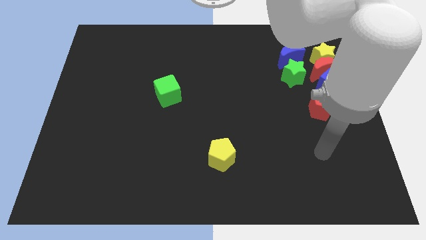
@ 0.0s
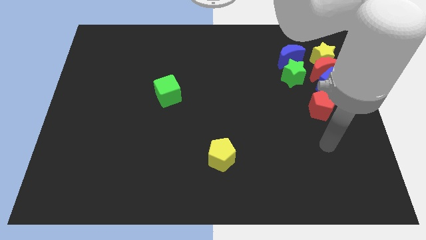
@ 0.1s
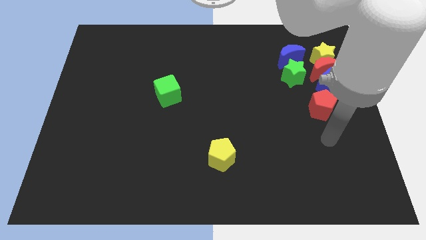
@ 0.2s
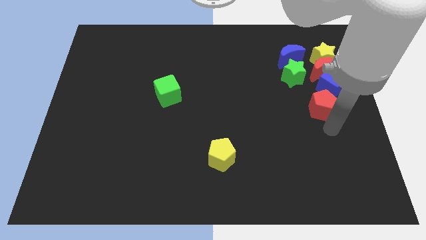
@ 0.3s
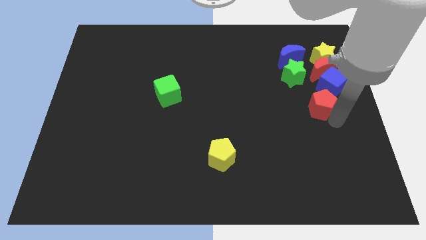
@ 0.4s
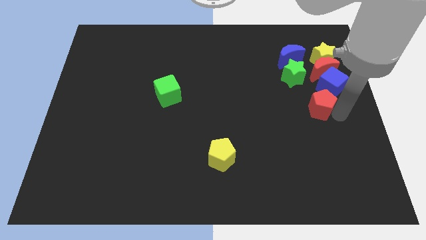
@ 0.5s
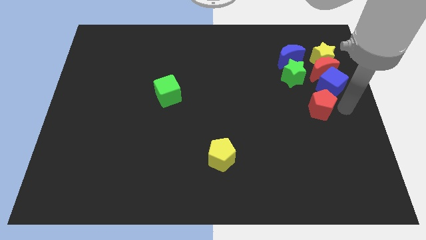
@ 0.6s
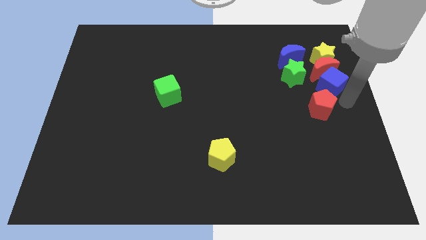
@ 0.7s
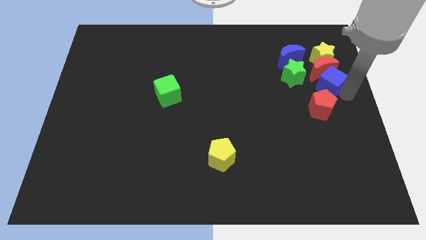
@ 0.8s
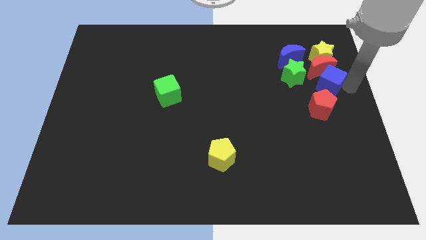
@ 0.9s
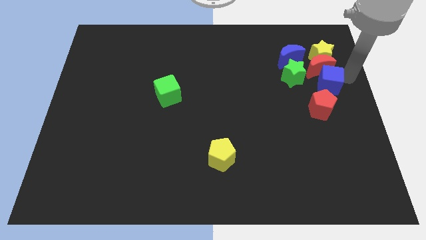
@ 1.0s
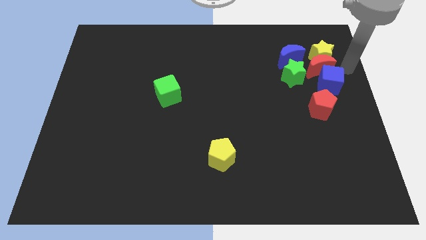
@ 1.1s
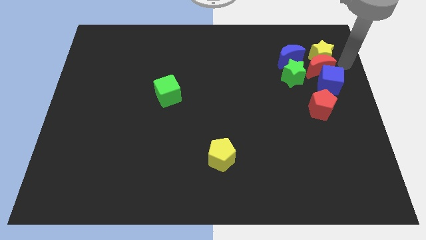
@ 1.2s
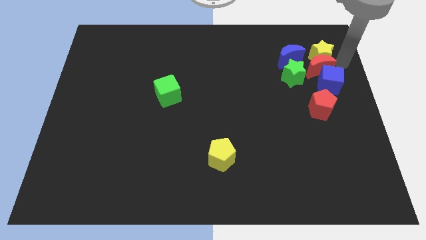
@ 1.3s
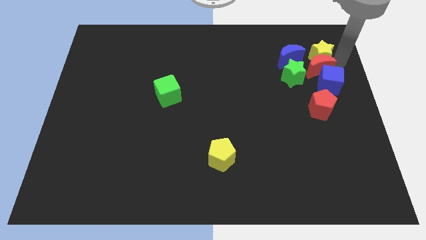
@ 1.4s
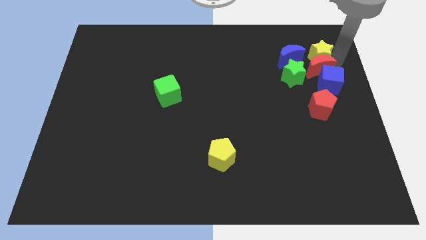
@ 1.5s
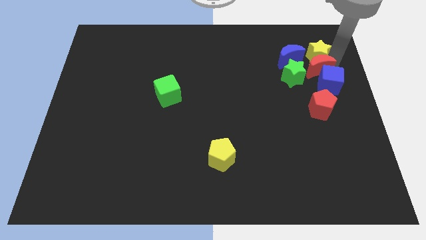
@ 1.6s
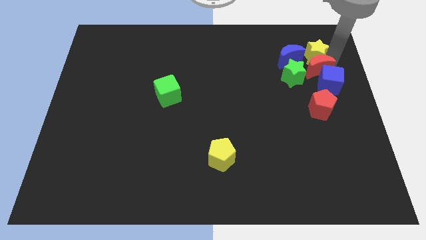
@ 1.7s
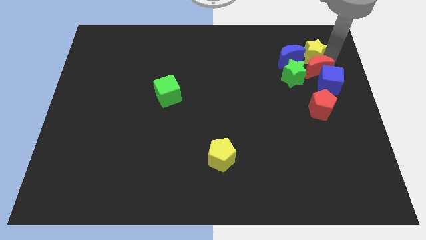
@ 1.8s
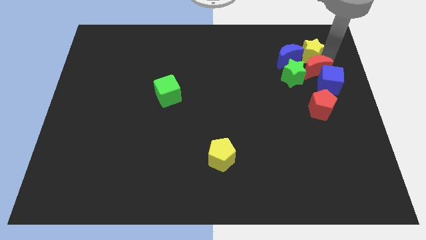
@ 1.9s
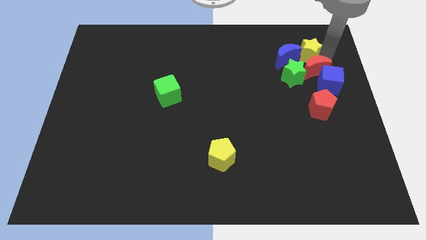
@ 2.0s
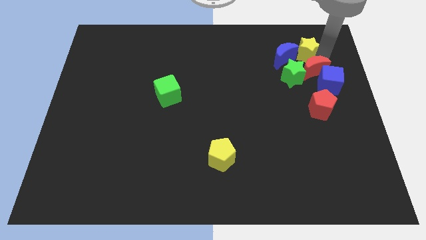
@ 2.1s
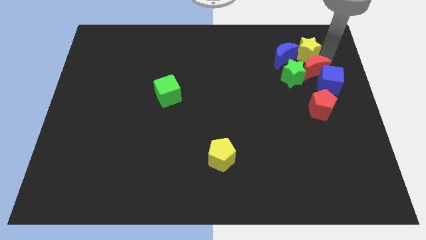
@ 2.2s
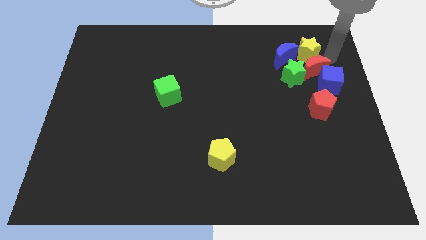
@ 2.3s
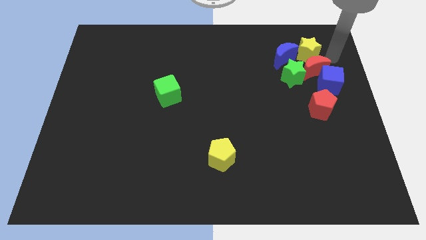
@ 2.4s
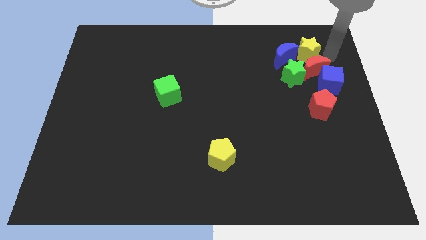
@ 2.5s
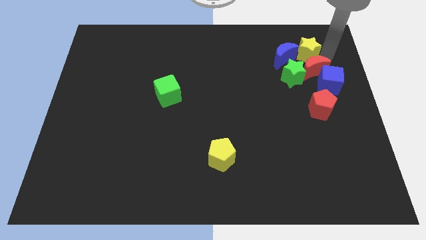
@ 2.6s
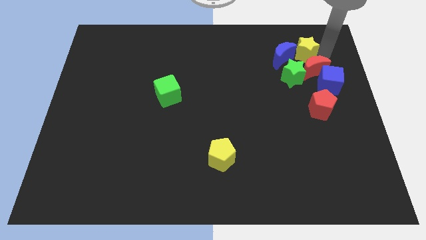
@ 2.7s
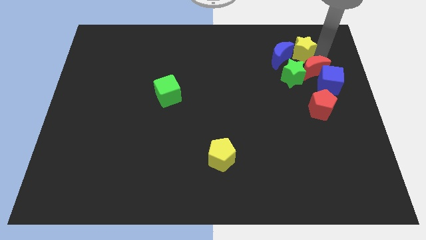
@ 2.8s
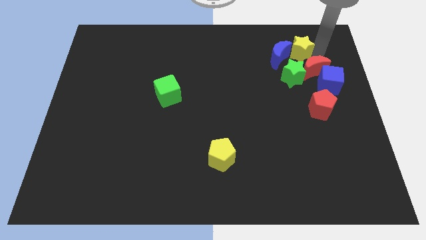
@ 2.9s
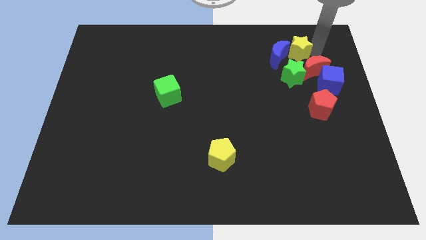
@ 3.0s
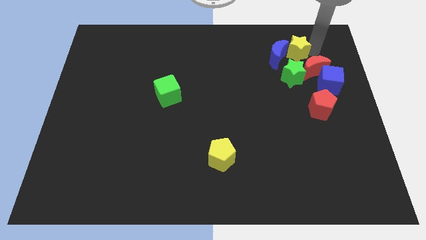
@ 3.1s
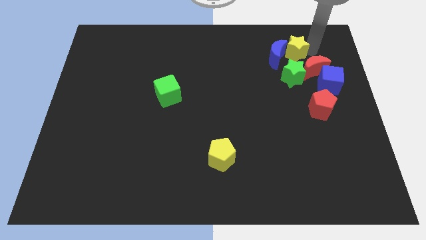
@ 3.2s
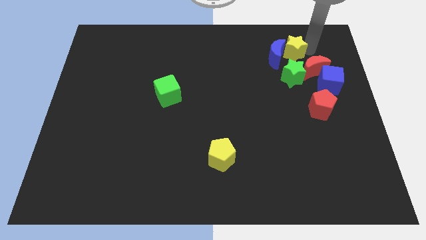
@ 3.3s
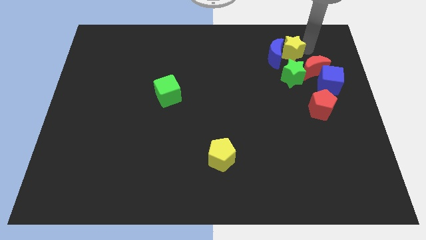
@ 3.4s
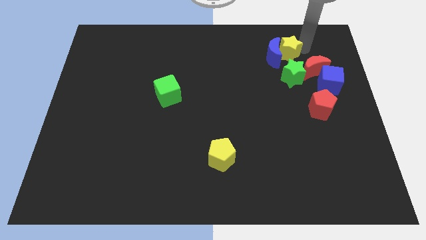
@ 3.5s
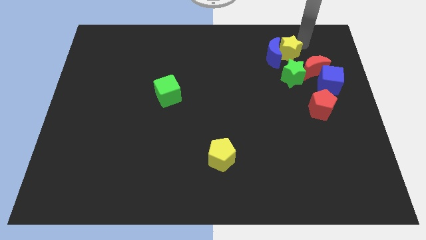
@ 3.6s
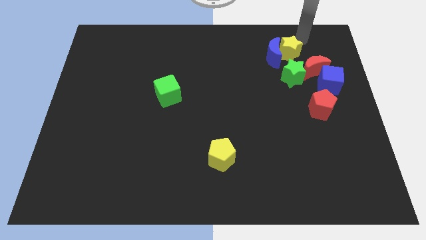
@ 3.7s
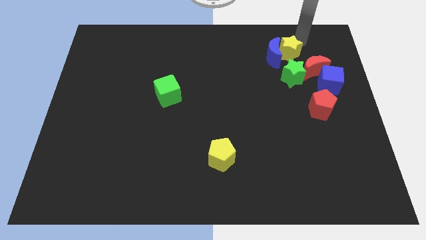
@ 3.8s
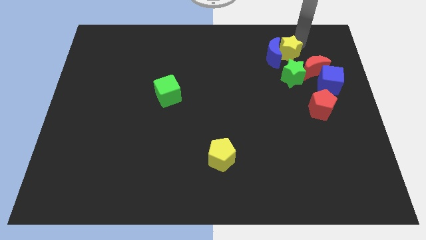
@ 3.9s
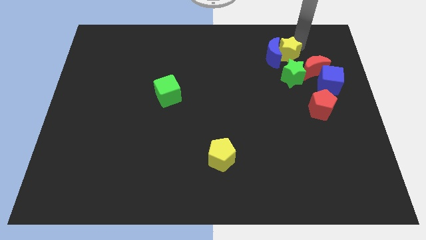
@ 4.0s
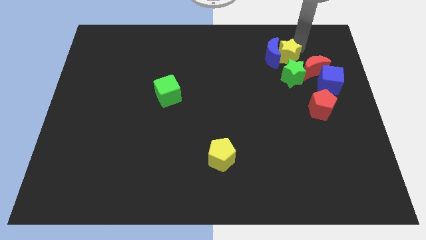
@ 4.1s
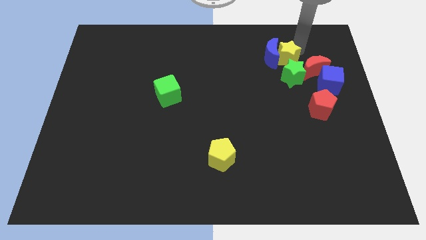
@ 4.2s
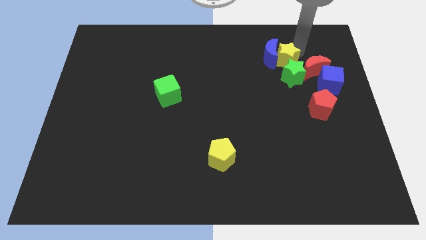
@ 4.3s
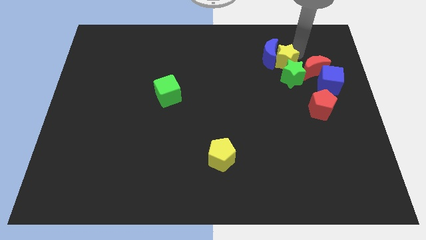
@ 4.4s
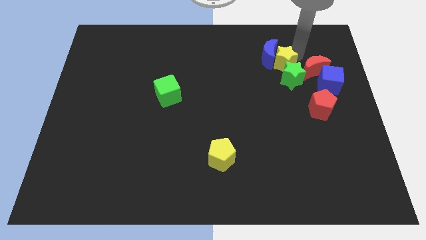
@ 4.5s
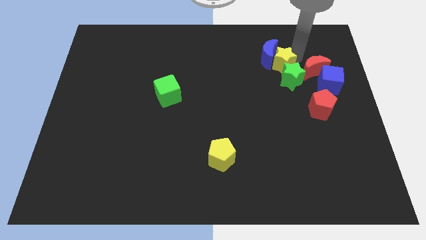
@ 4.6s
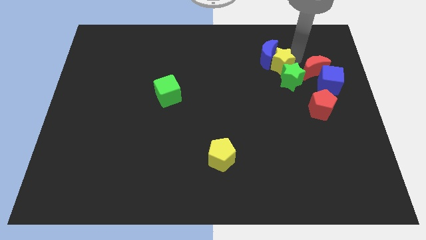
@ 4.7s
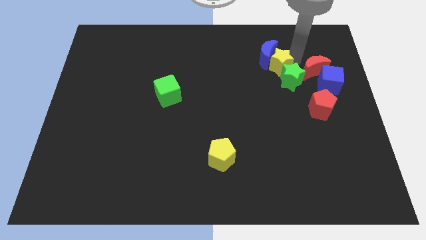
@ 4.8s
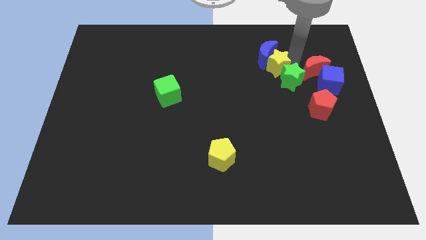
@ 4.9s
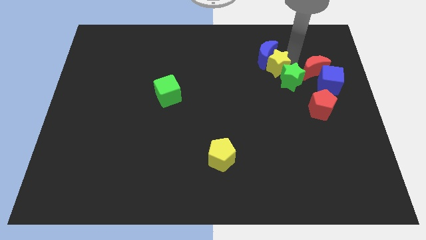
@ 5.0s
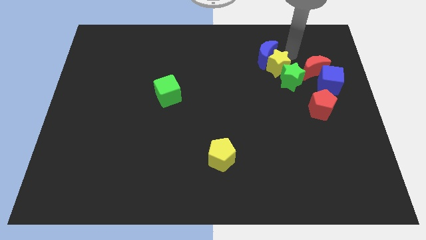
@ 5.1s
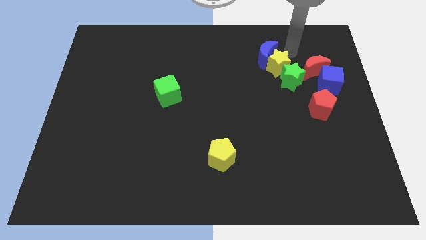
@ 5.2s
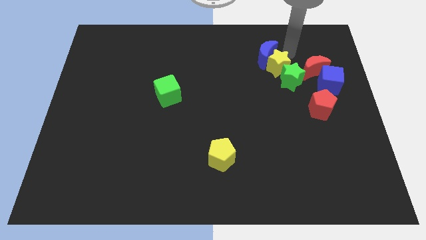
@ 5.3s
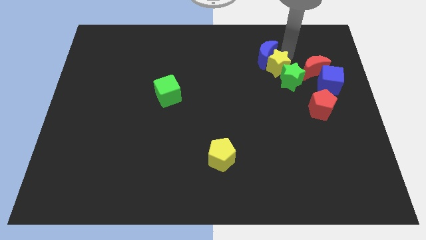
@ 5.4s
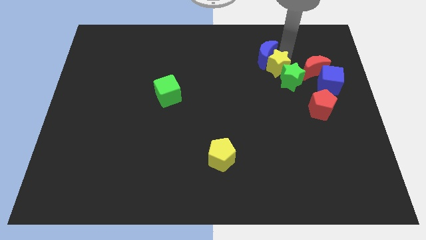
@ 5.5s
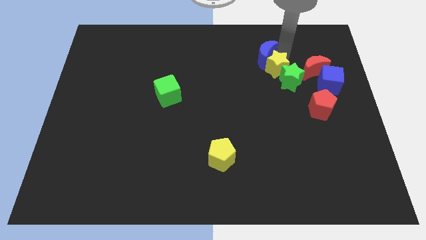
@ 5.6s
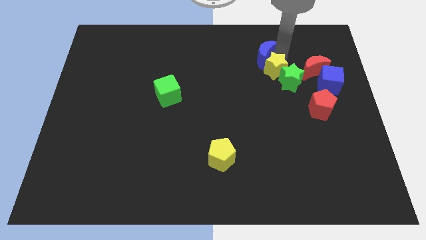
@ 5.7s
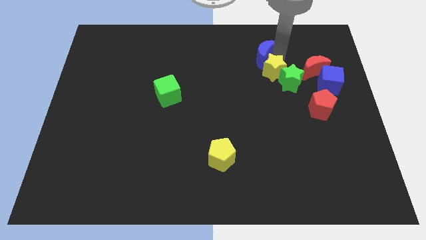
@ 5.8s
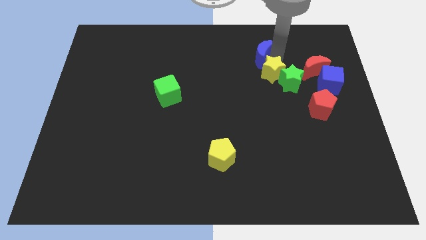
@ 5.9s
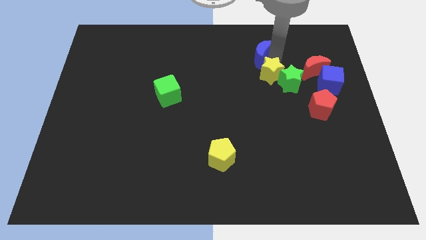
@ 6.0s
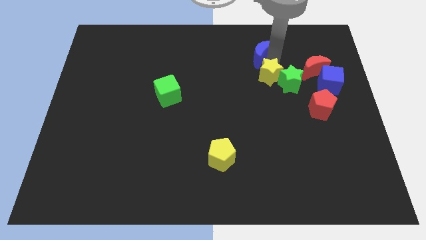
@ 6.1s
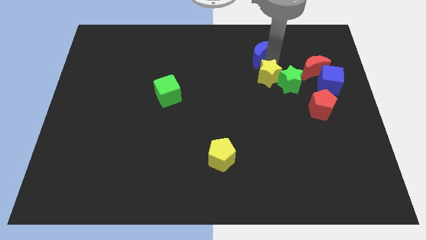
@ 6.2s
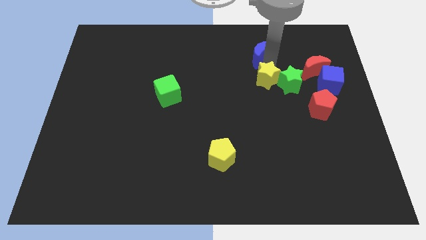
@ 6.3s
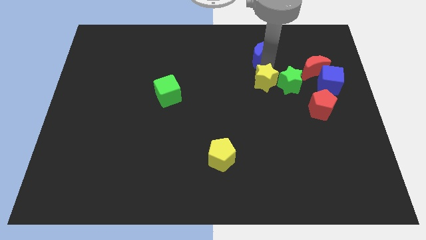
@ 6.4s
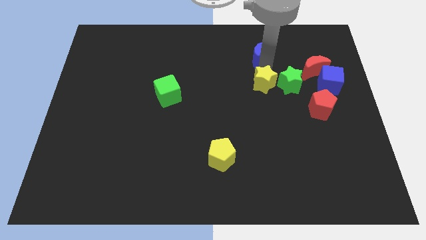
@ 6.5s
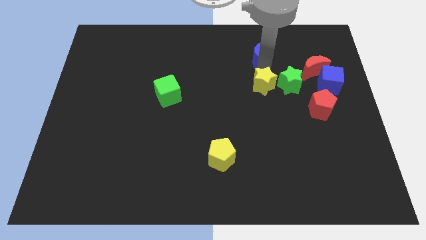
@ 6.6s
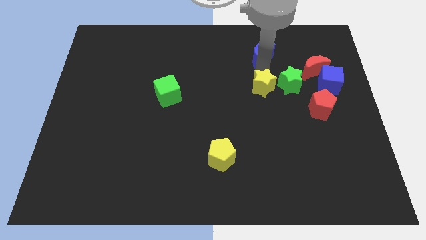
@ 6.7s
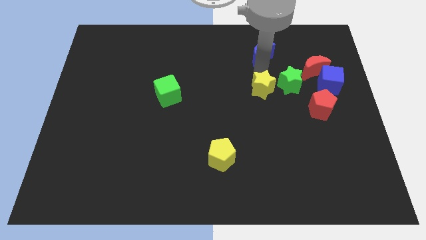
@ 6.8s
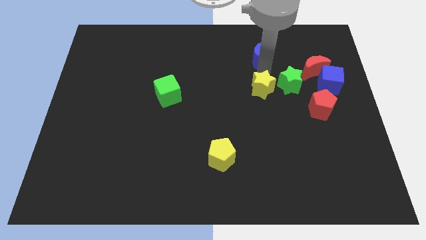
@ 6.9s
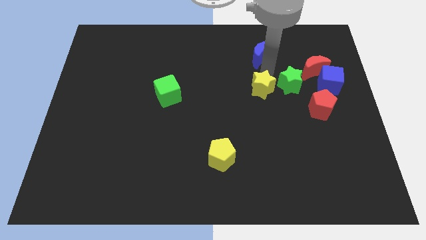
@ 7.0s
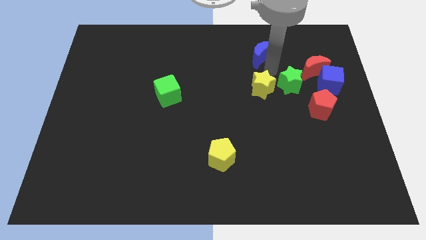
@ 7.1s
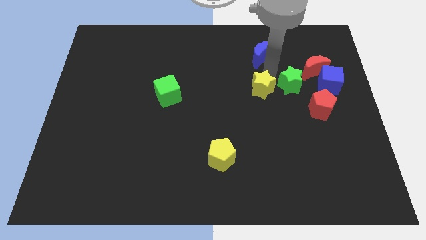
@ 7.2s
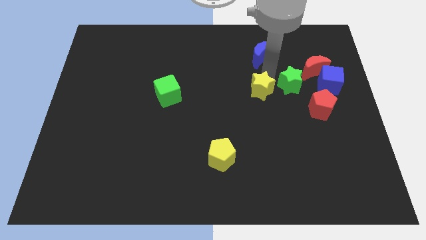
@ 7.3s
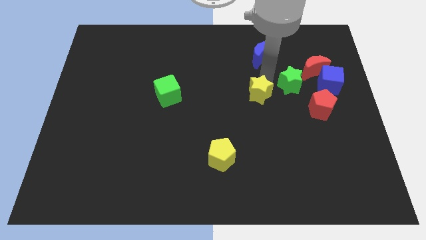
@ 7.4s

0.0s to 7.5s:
slide the yellow star downwards and left diagonally

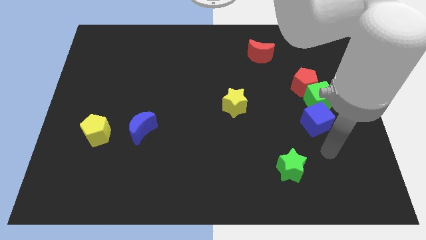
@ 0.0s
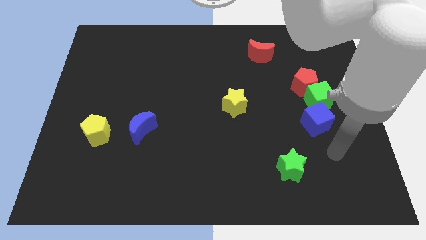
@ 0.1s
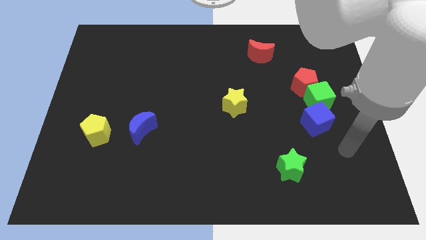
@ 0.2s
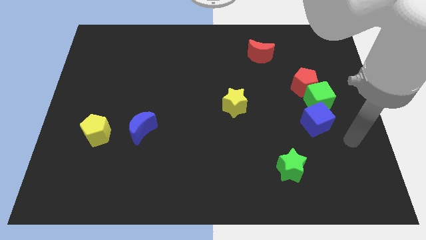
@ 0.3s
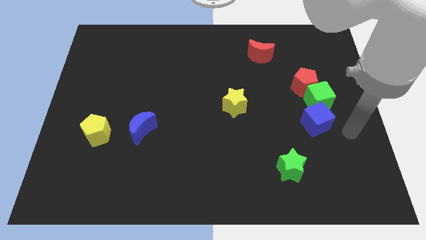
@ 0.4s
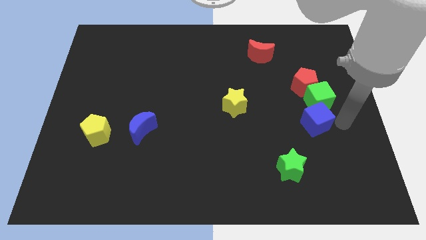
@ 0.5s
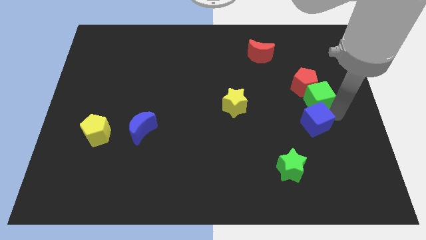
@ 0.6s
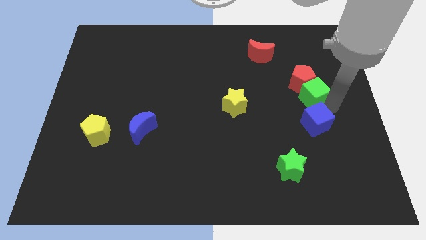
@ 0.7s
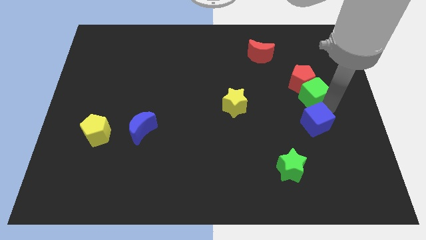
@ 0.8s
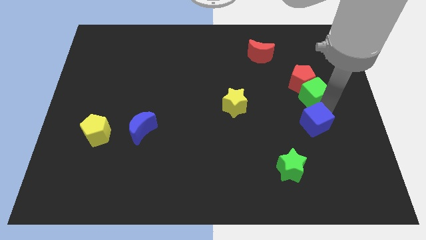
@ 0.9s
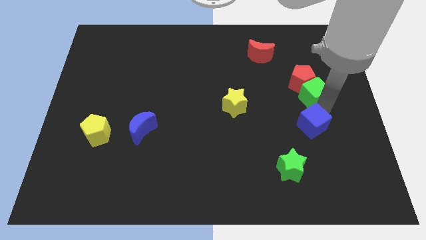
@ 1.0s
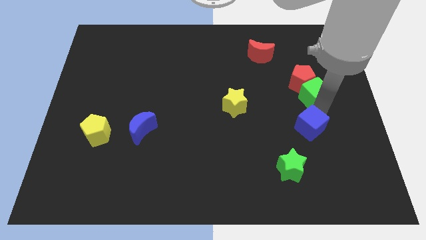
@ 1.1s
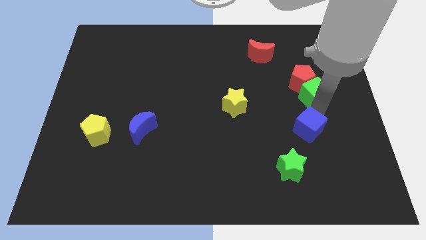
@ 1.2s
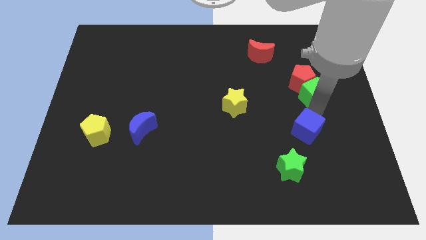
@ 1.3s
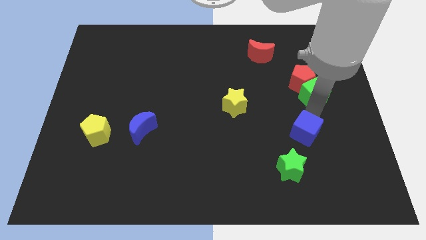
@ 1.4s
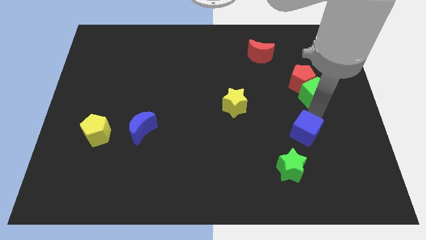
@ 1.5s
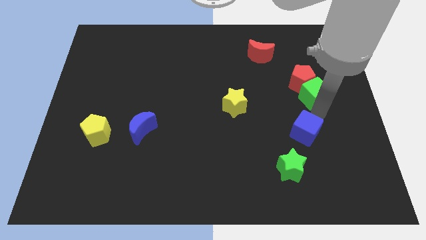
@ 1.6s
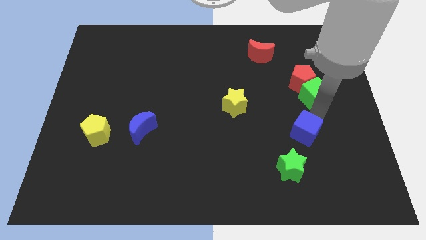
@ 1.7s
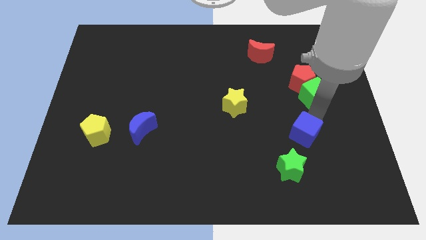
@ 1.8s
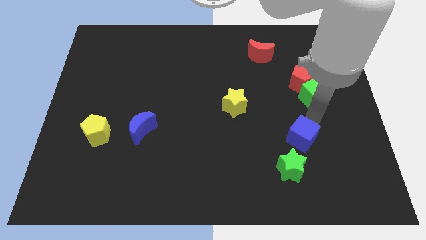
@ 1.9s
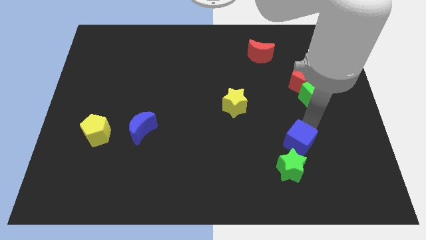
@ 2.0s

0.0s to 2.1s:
slide the blue cube a bit downwards and to the left
